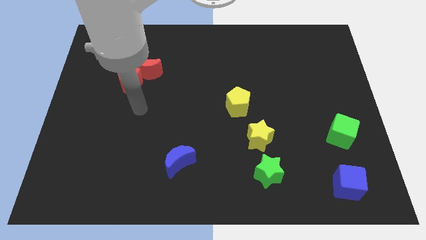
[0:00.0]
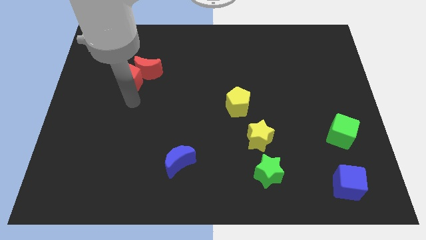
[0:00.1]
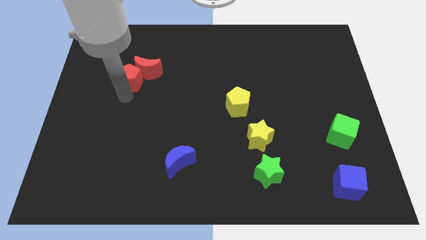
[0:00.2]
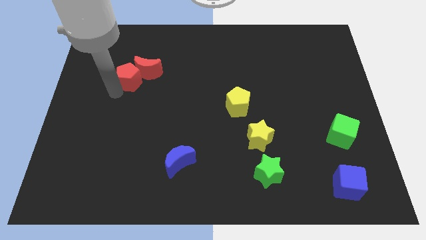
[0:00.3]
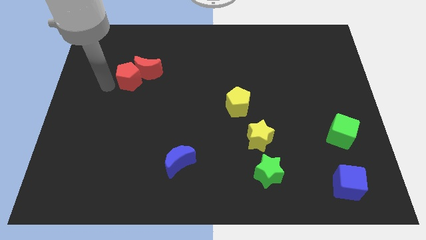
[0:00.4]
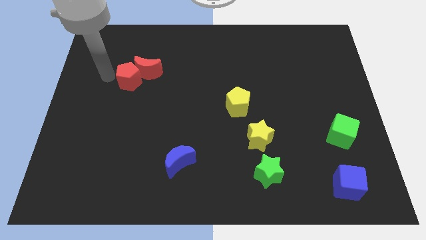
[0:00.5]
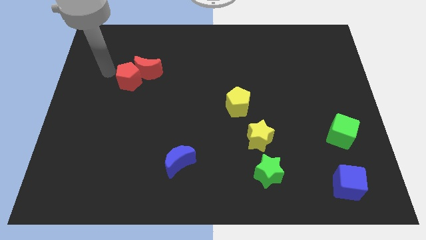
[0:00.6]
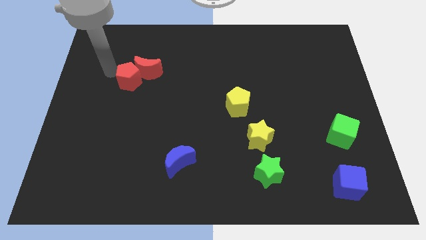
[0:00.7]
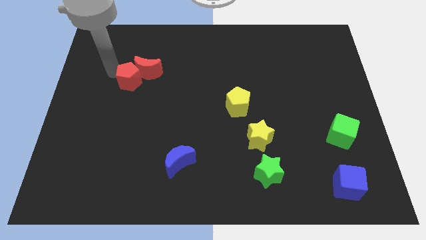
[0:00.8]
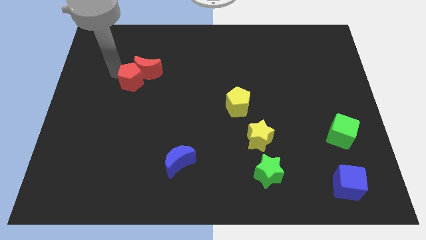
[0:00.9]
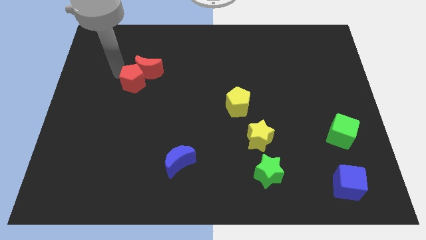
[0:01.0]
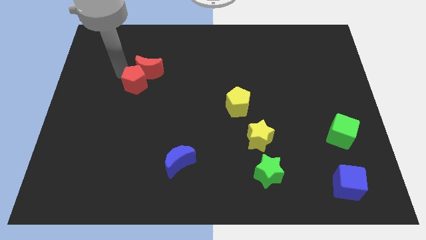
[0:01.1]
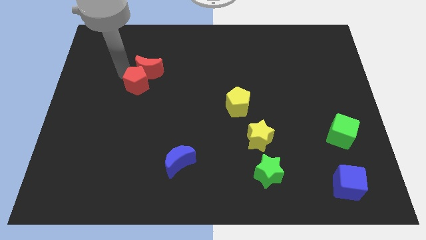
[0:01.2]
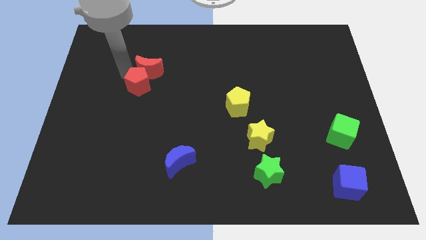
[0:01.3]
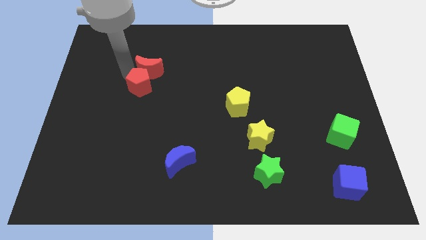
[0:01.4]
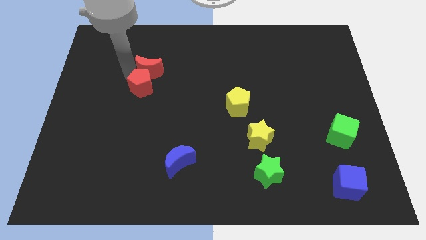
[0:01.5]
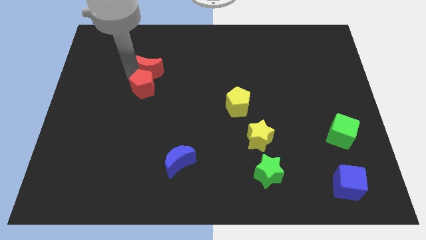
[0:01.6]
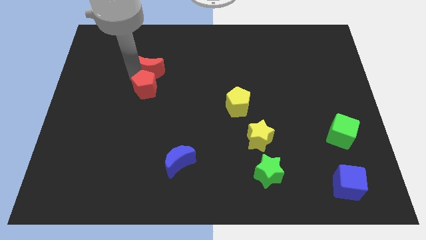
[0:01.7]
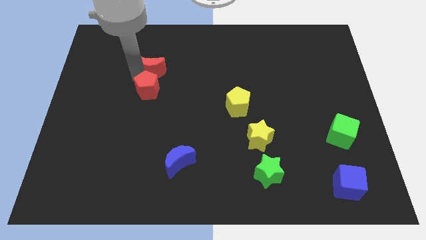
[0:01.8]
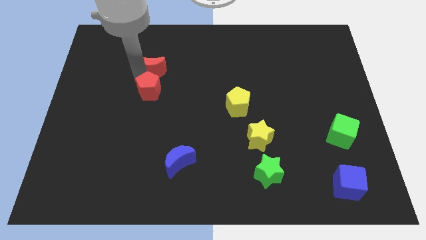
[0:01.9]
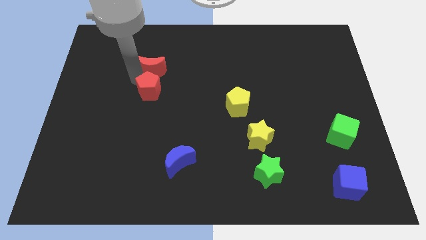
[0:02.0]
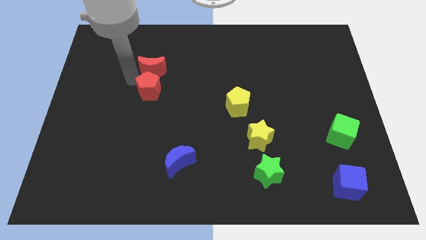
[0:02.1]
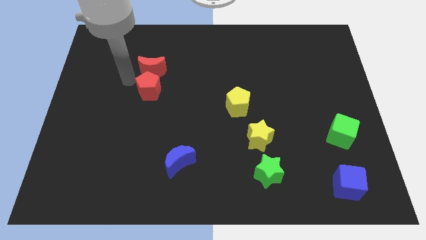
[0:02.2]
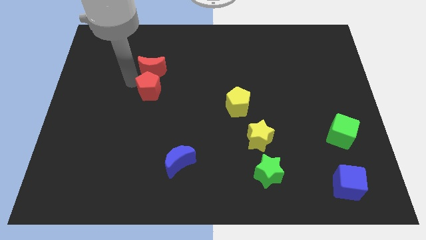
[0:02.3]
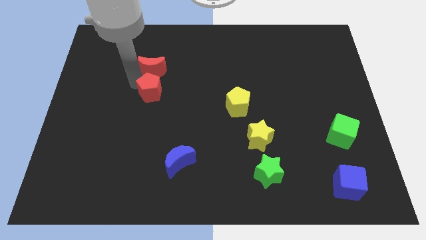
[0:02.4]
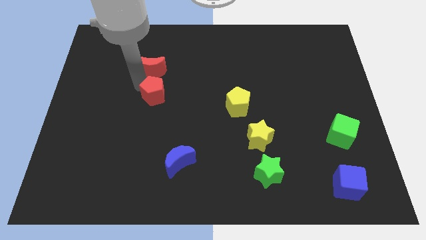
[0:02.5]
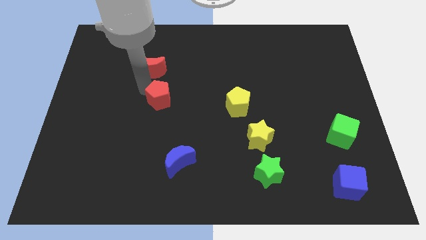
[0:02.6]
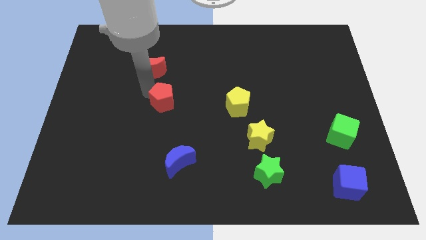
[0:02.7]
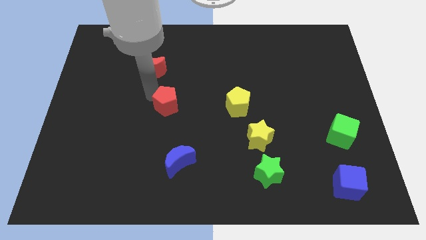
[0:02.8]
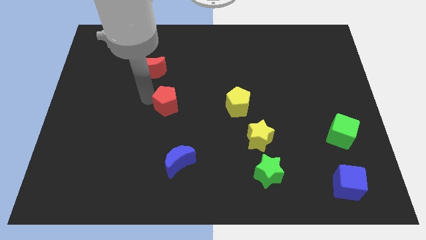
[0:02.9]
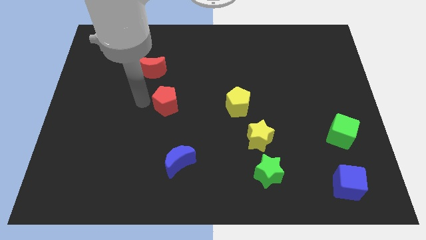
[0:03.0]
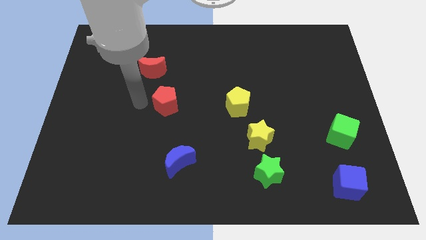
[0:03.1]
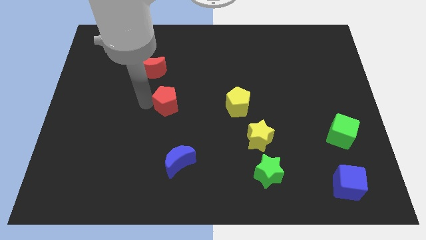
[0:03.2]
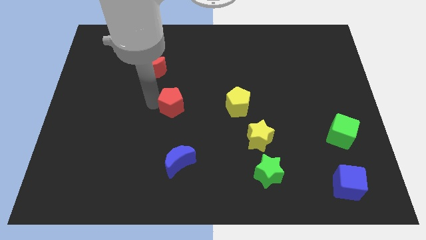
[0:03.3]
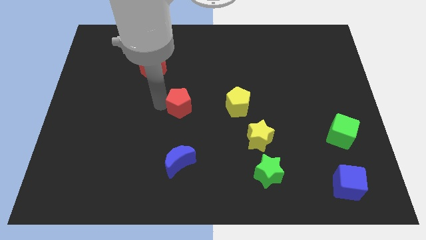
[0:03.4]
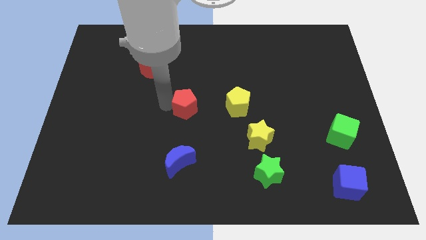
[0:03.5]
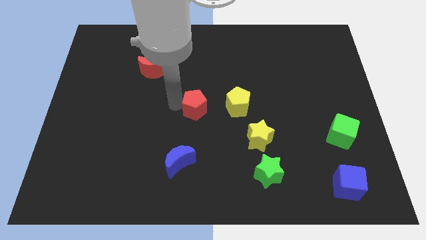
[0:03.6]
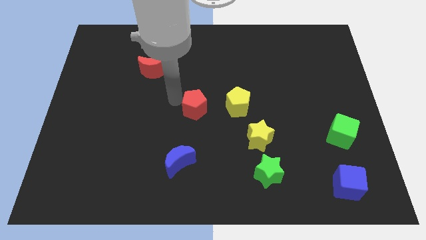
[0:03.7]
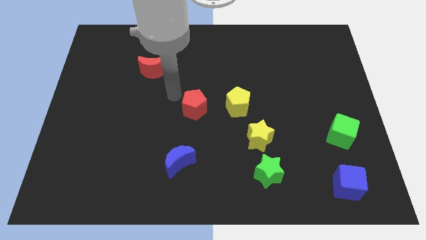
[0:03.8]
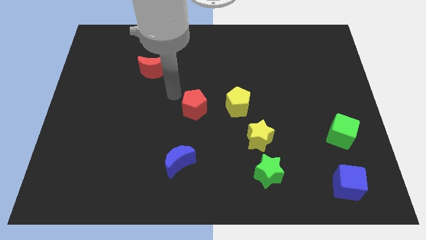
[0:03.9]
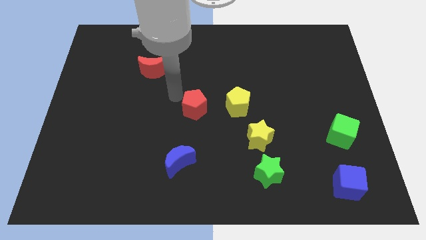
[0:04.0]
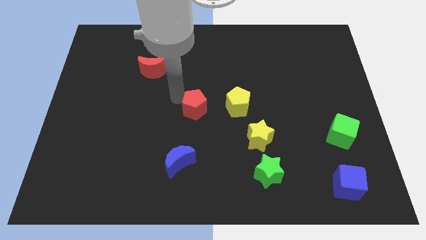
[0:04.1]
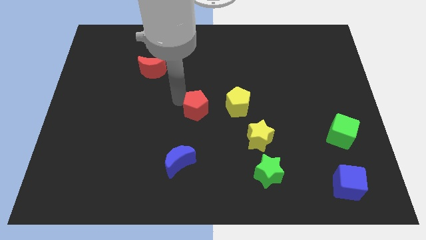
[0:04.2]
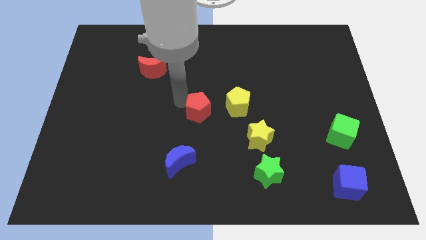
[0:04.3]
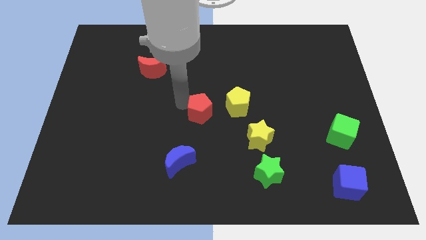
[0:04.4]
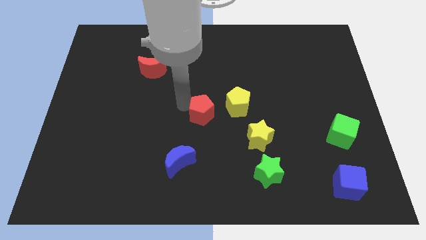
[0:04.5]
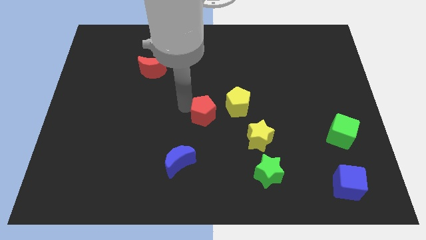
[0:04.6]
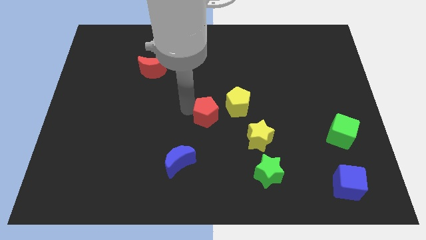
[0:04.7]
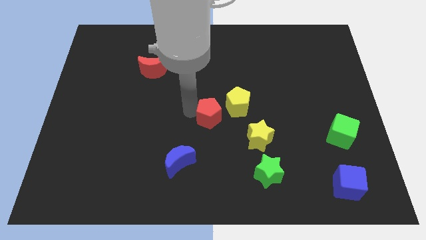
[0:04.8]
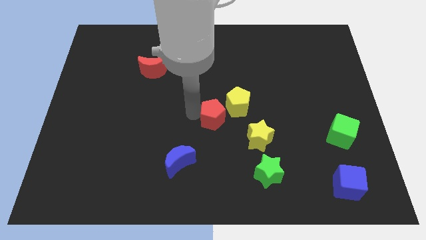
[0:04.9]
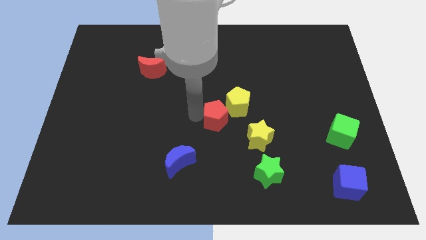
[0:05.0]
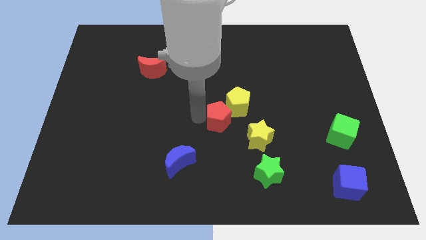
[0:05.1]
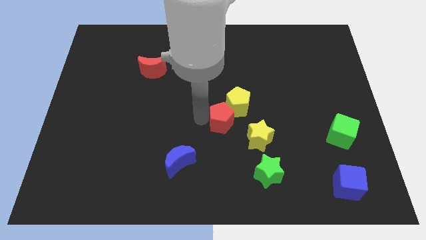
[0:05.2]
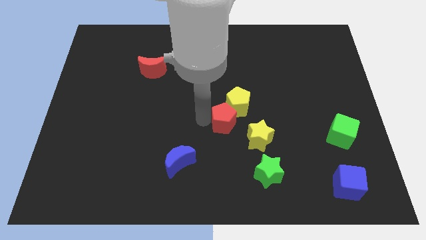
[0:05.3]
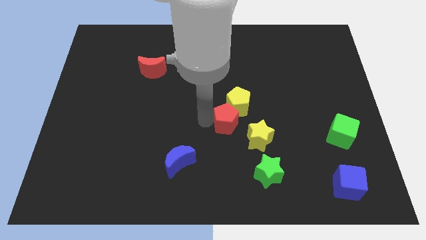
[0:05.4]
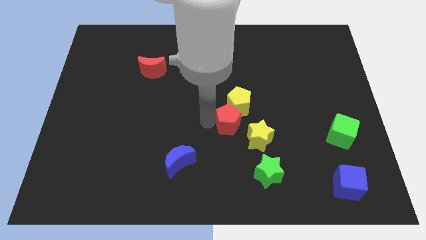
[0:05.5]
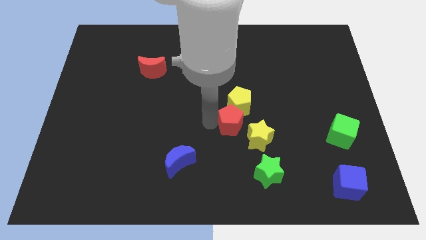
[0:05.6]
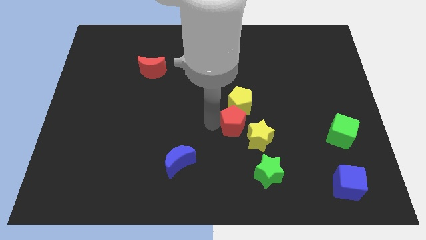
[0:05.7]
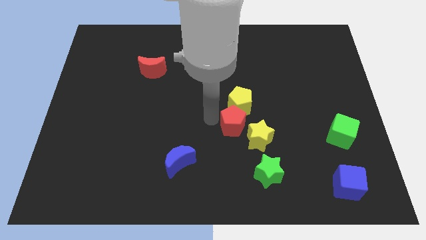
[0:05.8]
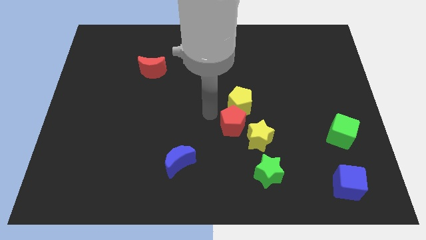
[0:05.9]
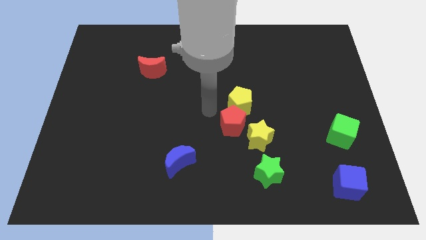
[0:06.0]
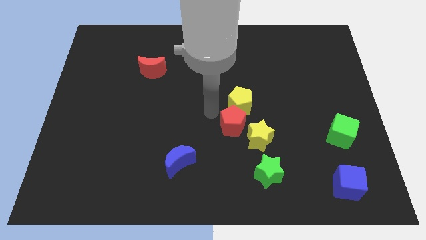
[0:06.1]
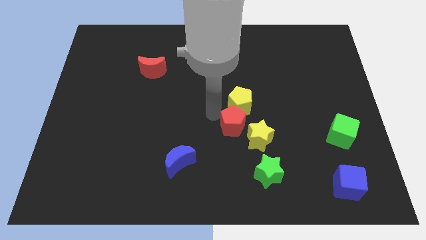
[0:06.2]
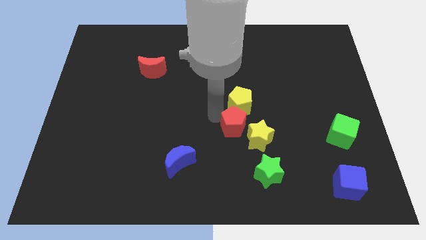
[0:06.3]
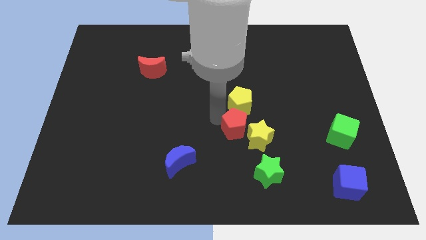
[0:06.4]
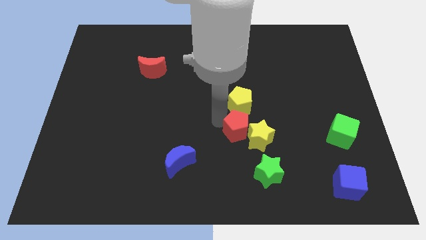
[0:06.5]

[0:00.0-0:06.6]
put the red pentagon close to the yellow star
